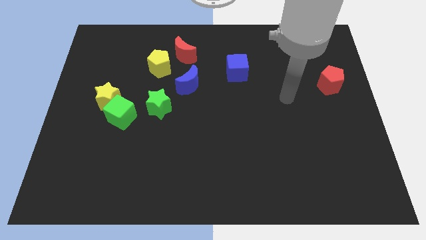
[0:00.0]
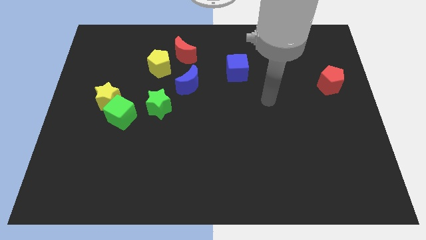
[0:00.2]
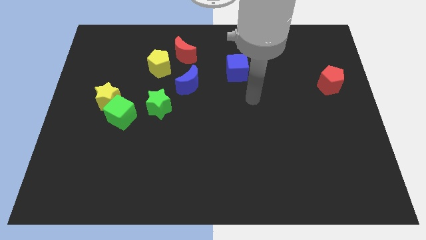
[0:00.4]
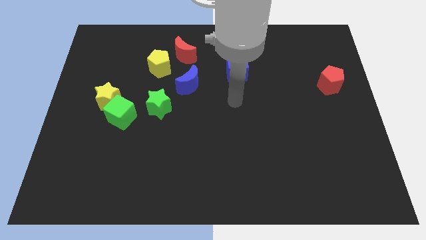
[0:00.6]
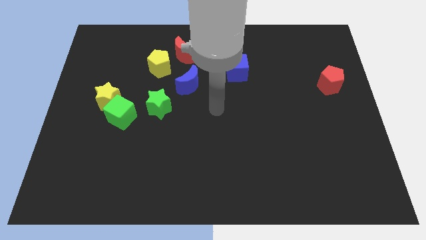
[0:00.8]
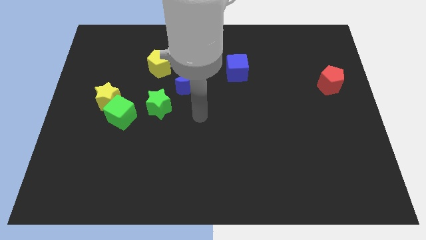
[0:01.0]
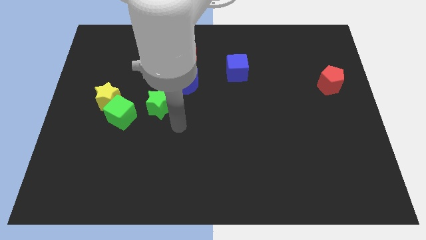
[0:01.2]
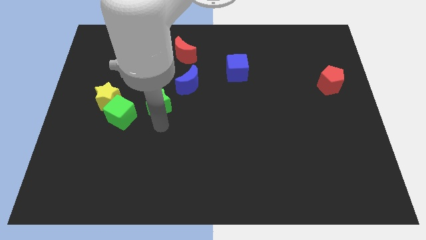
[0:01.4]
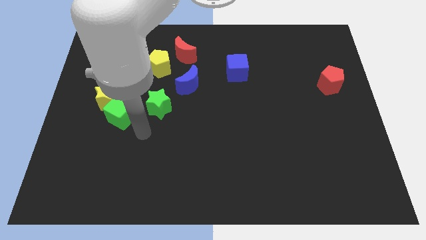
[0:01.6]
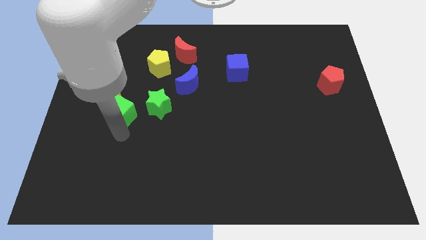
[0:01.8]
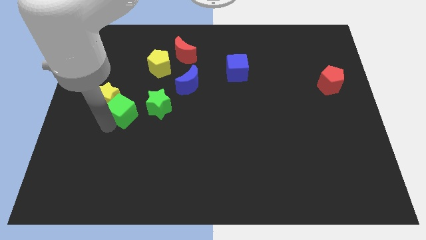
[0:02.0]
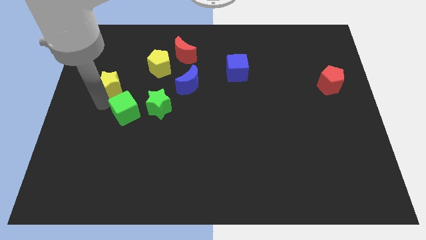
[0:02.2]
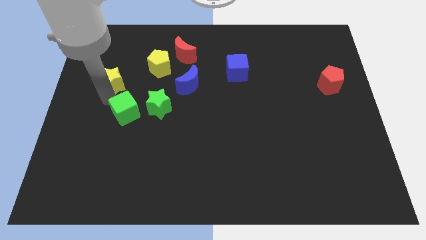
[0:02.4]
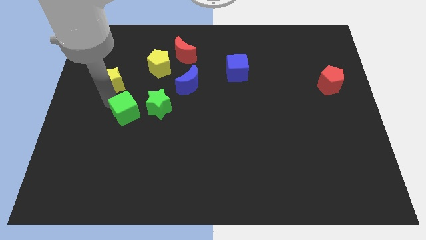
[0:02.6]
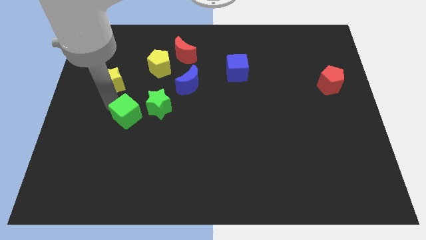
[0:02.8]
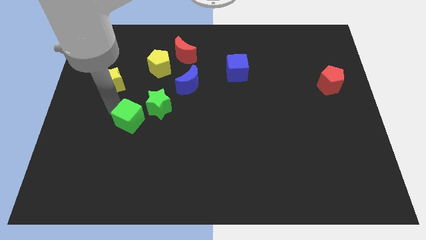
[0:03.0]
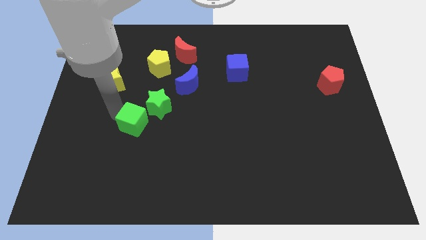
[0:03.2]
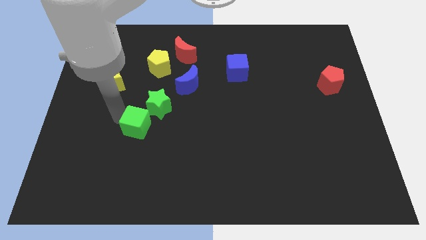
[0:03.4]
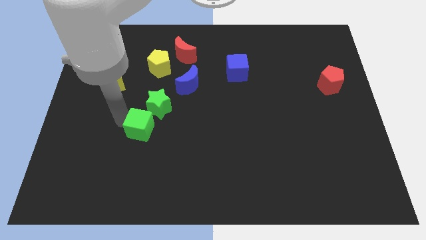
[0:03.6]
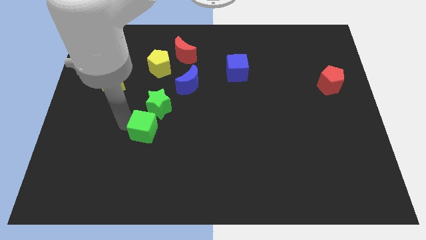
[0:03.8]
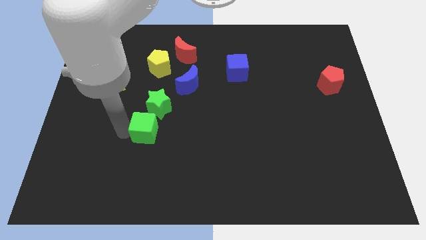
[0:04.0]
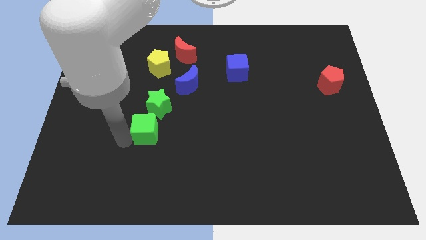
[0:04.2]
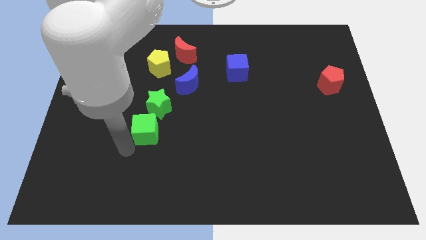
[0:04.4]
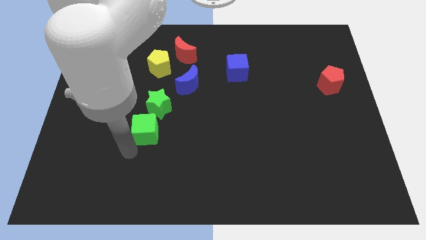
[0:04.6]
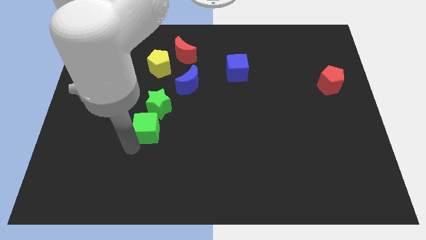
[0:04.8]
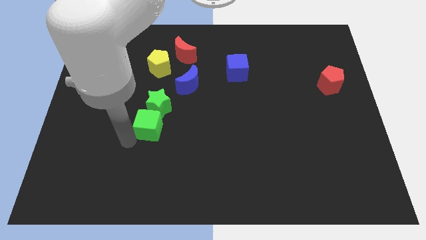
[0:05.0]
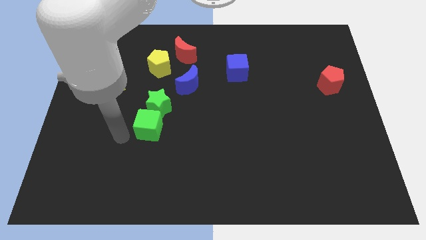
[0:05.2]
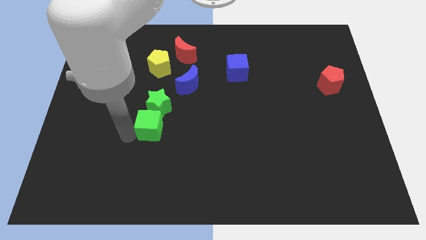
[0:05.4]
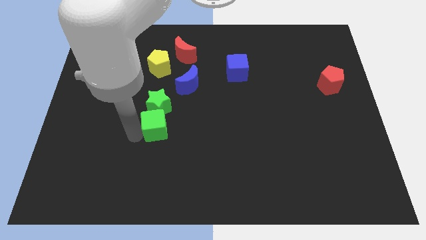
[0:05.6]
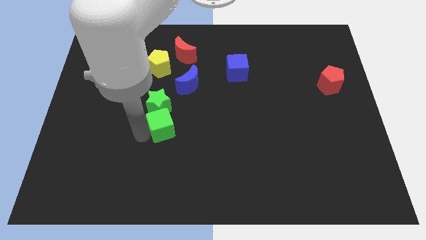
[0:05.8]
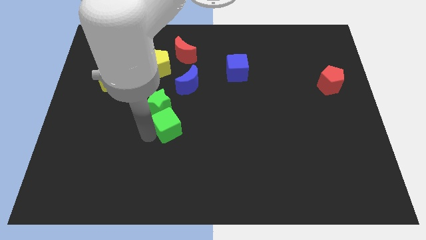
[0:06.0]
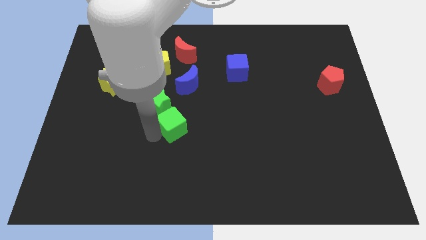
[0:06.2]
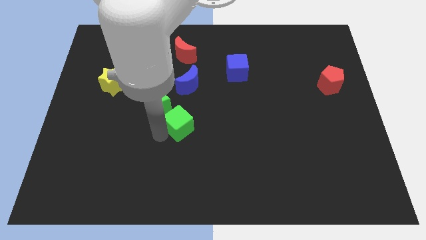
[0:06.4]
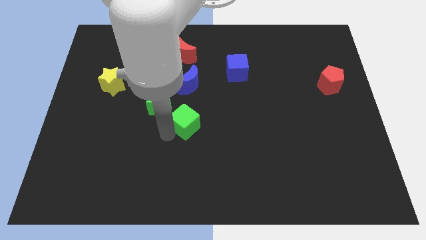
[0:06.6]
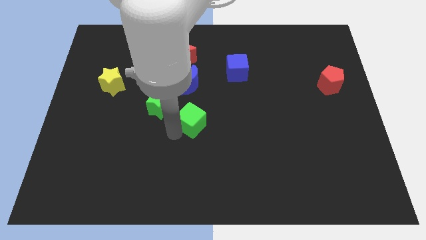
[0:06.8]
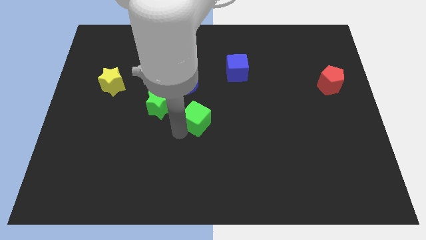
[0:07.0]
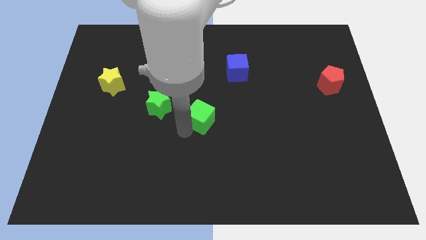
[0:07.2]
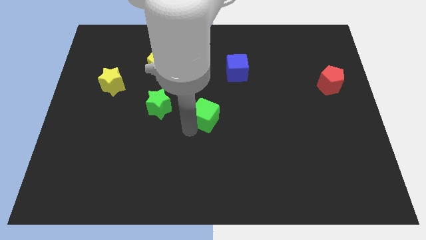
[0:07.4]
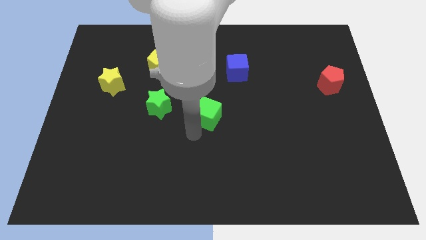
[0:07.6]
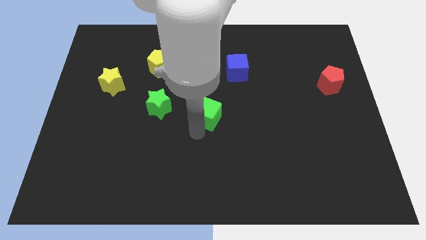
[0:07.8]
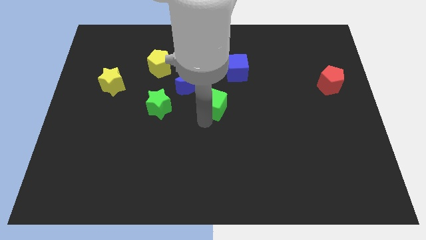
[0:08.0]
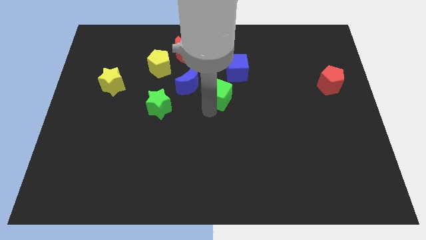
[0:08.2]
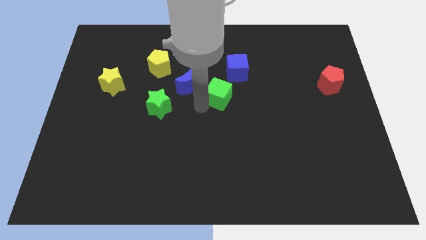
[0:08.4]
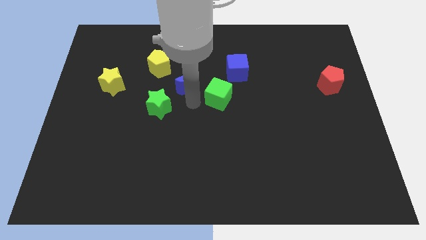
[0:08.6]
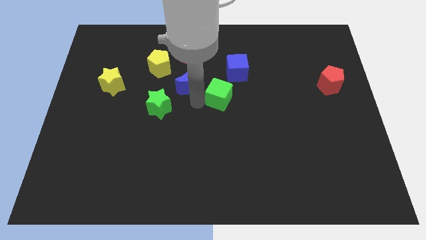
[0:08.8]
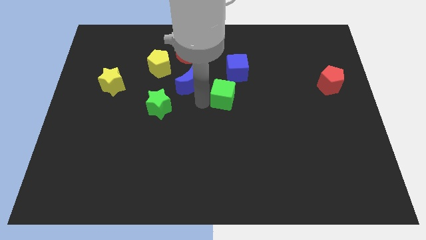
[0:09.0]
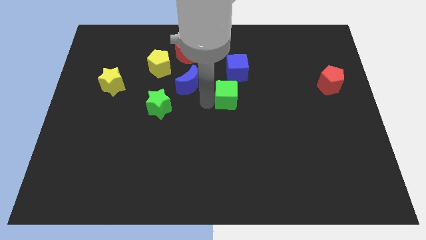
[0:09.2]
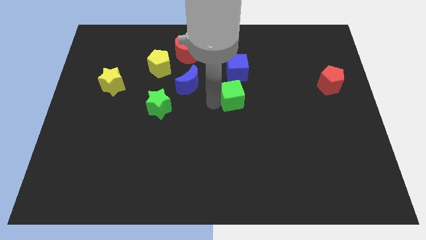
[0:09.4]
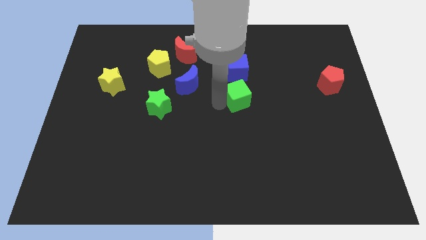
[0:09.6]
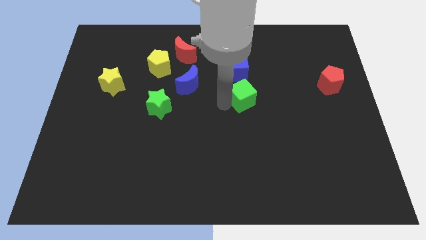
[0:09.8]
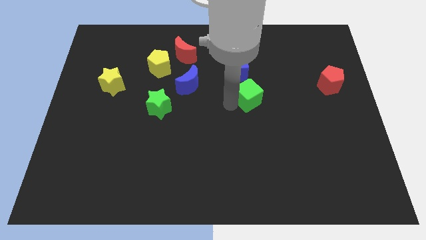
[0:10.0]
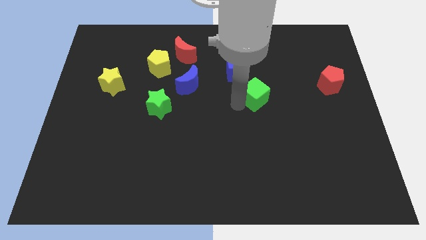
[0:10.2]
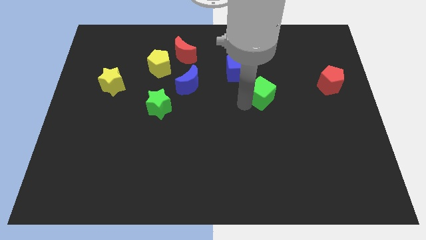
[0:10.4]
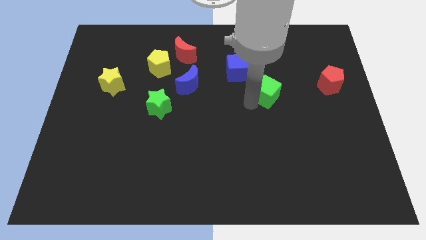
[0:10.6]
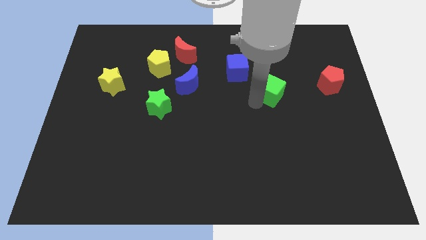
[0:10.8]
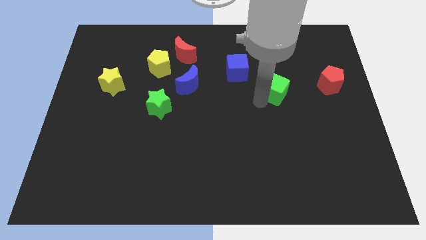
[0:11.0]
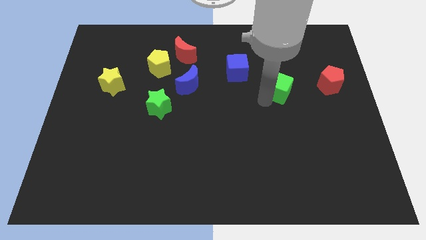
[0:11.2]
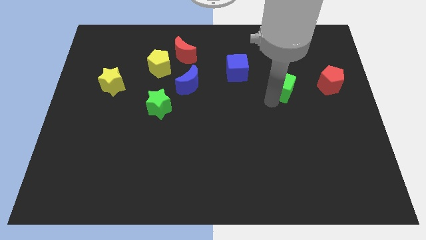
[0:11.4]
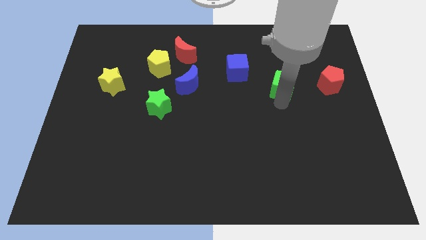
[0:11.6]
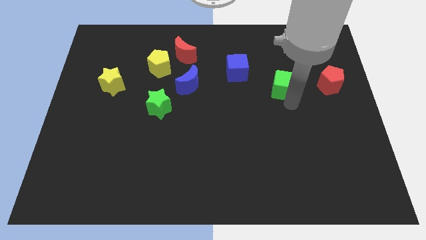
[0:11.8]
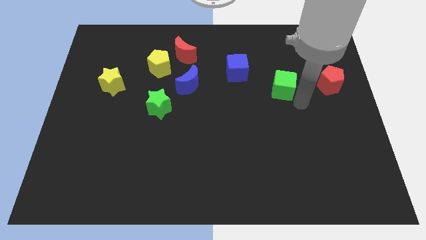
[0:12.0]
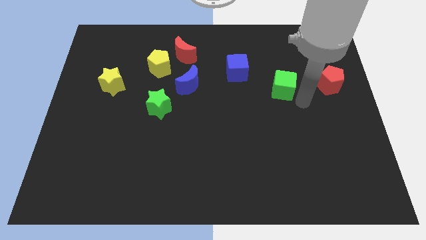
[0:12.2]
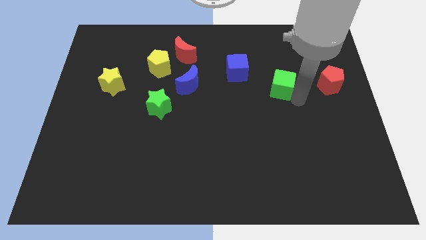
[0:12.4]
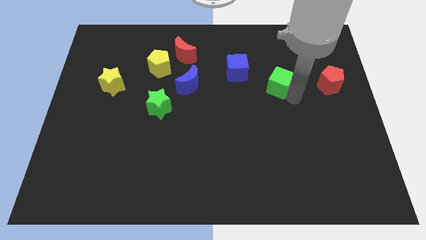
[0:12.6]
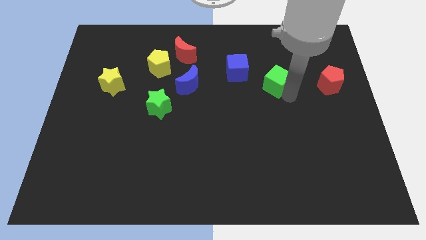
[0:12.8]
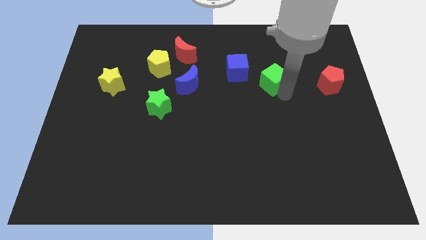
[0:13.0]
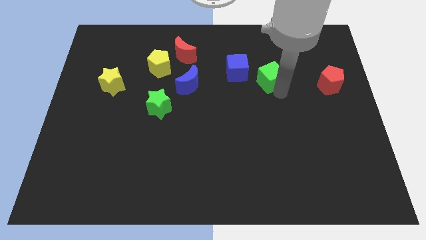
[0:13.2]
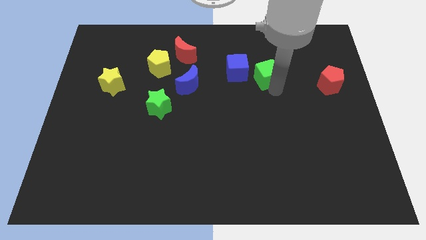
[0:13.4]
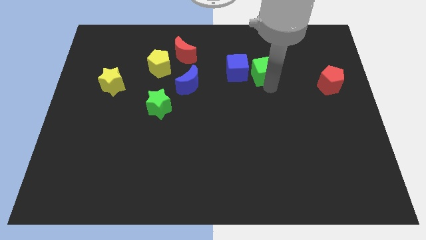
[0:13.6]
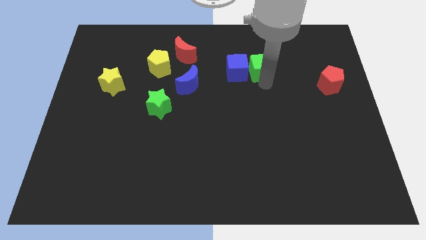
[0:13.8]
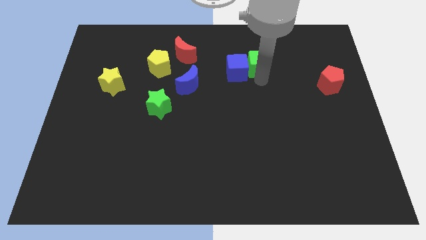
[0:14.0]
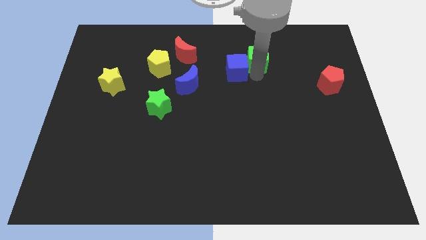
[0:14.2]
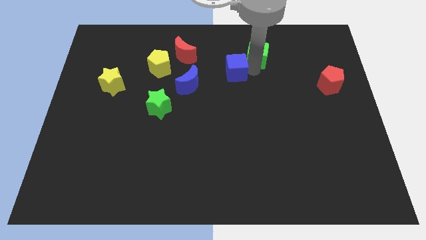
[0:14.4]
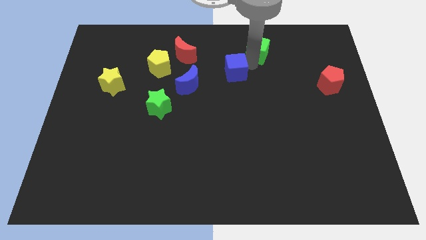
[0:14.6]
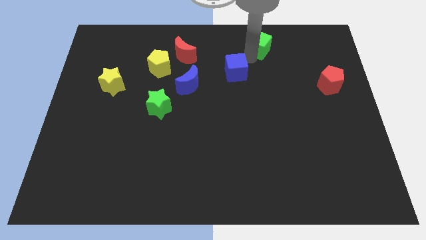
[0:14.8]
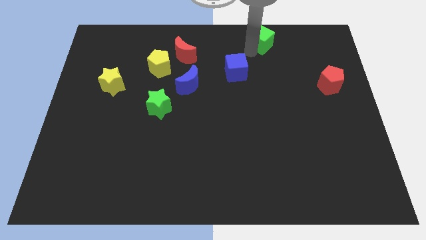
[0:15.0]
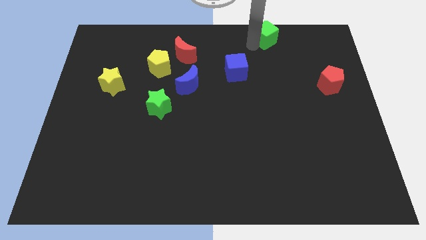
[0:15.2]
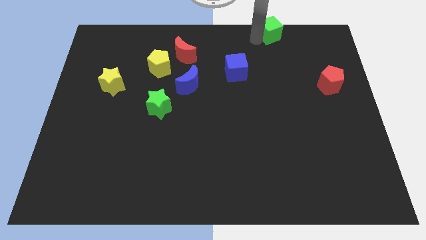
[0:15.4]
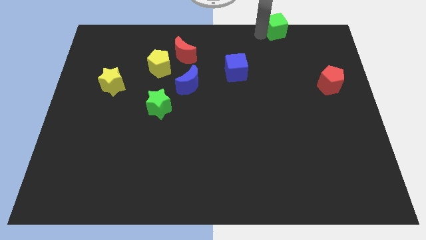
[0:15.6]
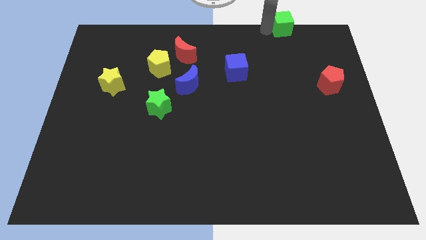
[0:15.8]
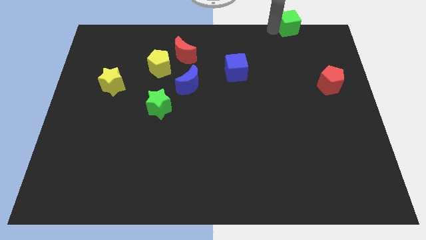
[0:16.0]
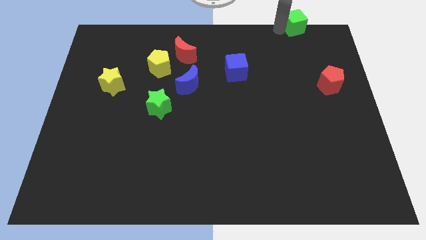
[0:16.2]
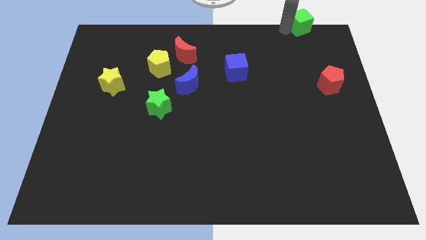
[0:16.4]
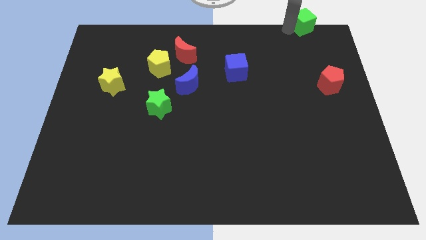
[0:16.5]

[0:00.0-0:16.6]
move the green cube to the top right corner
